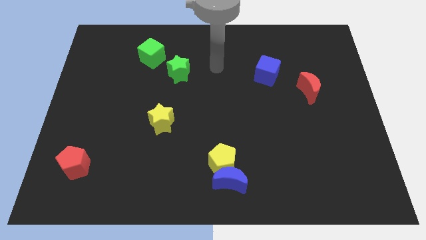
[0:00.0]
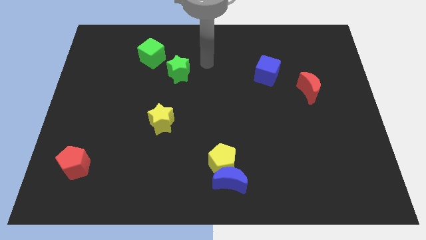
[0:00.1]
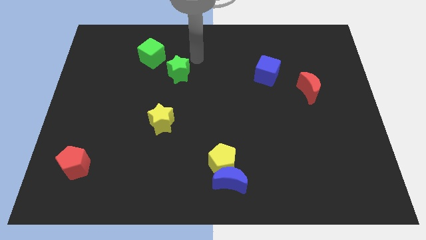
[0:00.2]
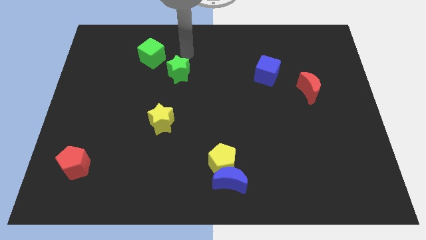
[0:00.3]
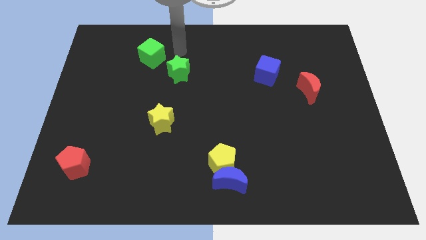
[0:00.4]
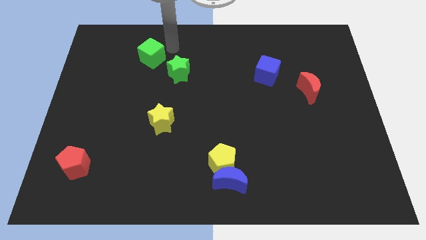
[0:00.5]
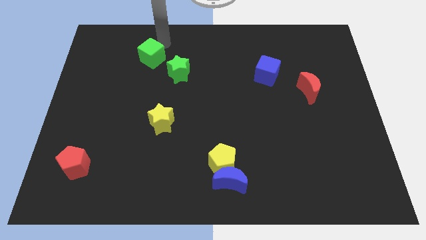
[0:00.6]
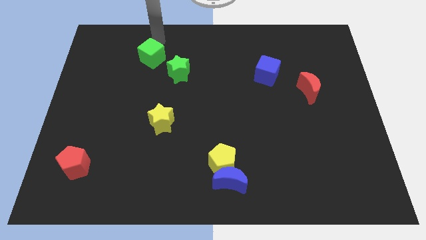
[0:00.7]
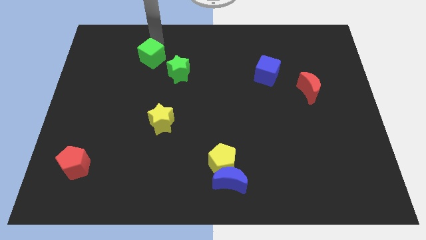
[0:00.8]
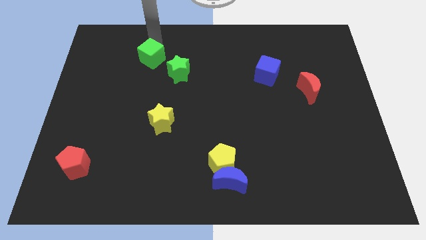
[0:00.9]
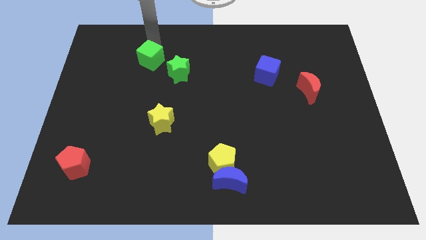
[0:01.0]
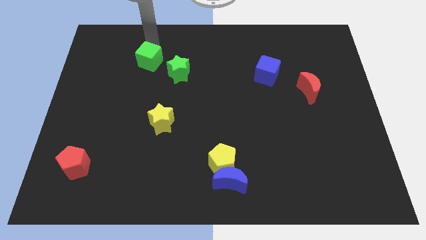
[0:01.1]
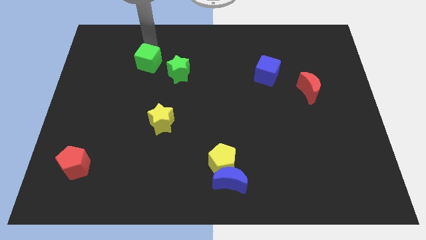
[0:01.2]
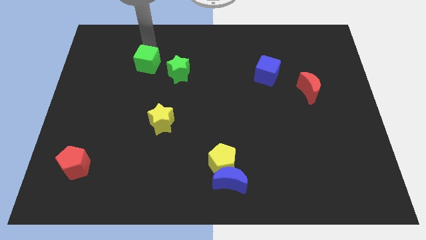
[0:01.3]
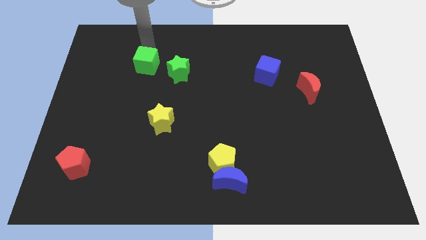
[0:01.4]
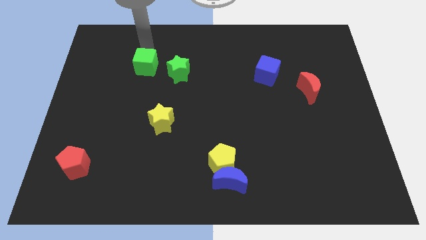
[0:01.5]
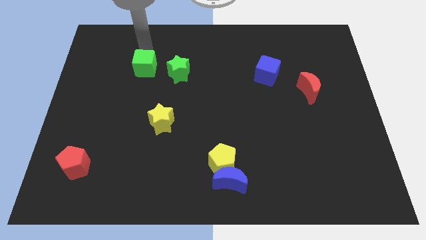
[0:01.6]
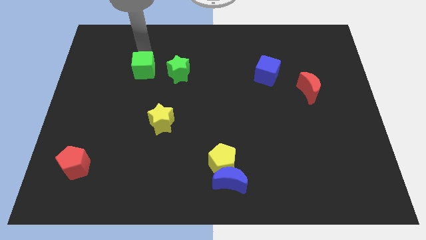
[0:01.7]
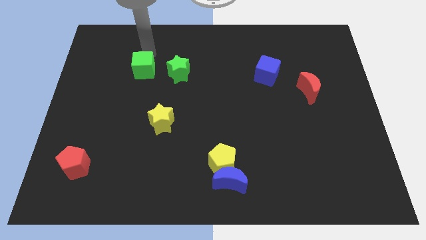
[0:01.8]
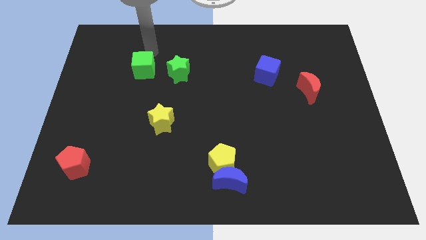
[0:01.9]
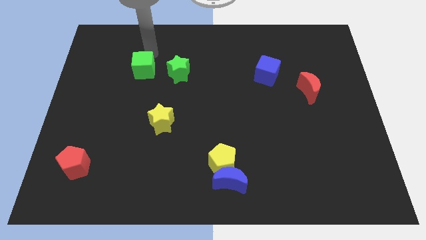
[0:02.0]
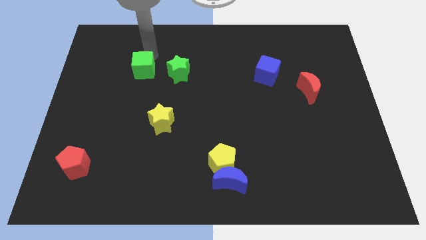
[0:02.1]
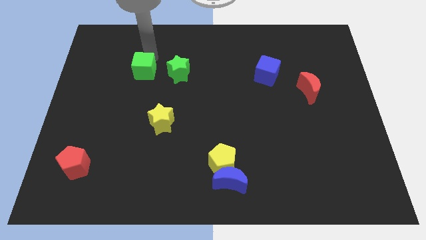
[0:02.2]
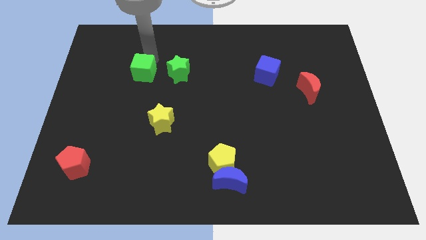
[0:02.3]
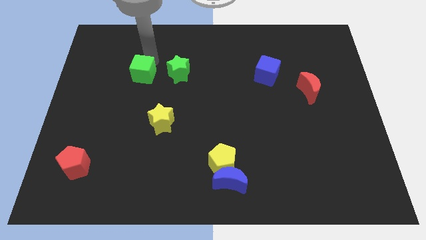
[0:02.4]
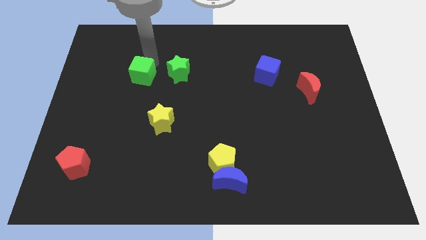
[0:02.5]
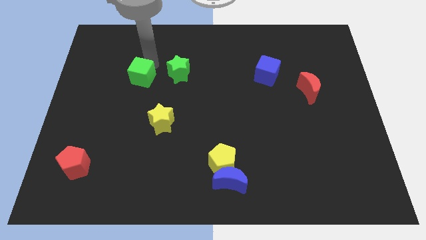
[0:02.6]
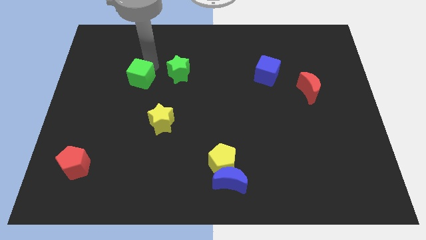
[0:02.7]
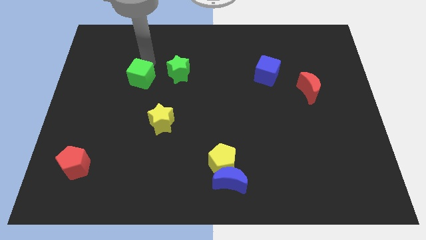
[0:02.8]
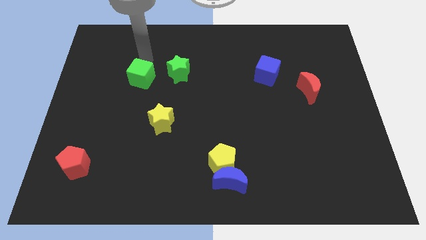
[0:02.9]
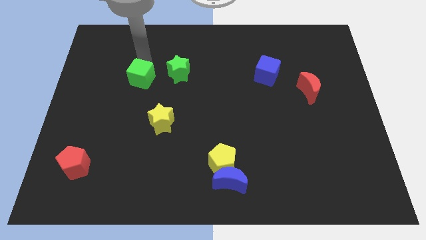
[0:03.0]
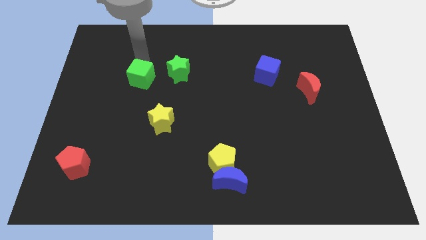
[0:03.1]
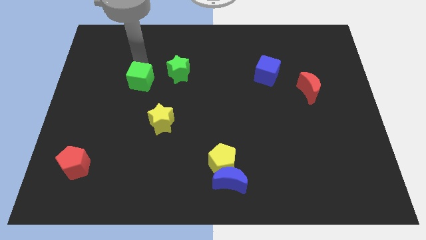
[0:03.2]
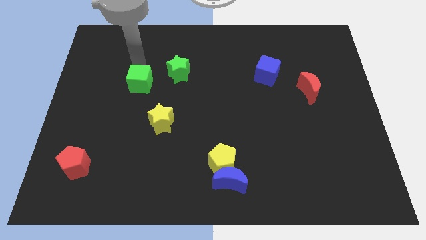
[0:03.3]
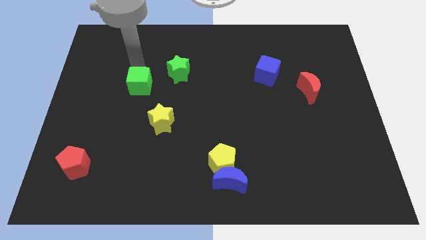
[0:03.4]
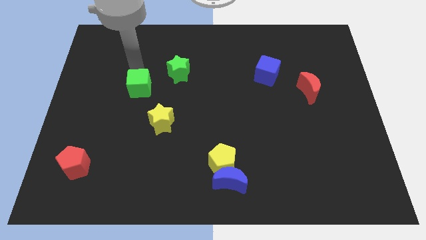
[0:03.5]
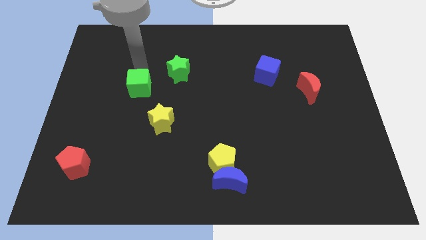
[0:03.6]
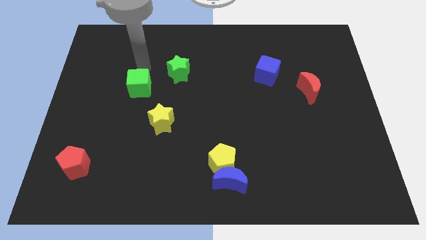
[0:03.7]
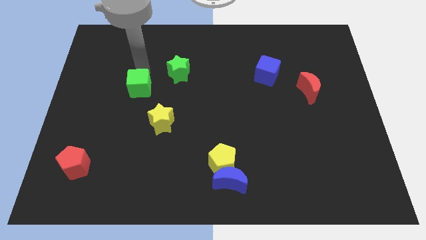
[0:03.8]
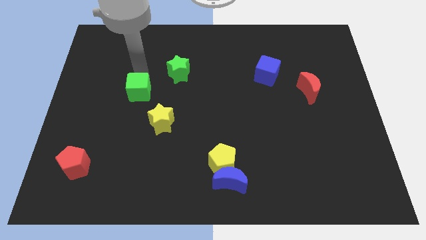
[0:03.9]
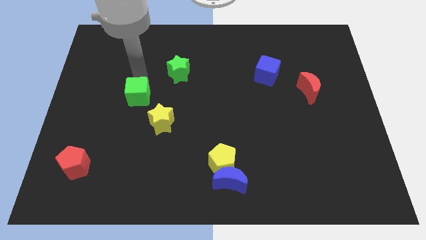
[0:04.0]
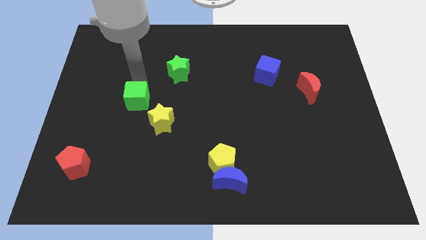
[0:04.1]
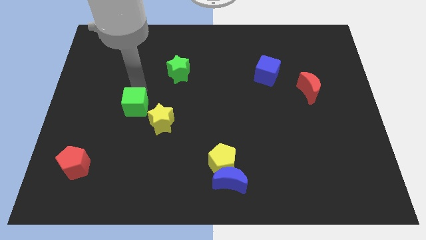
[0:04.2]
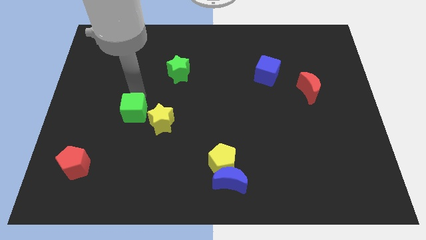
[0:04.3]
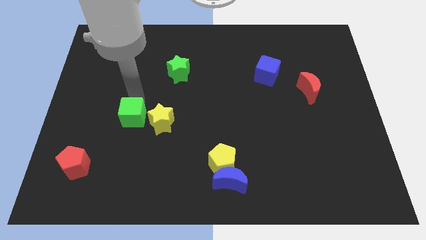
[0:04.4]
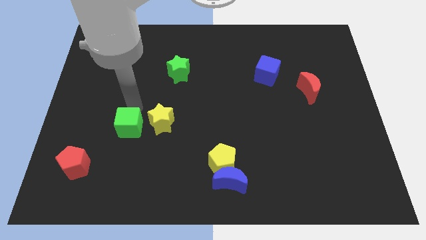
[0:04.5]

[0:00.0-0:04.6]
push the green cube downwards

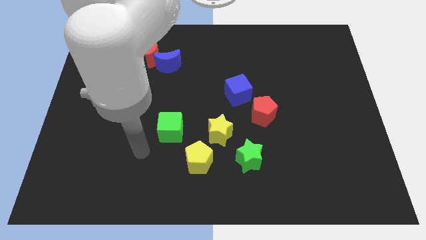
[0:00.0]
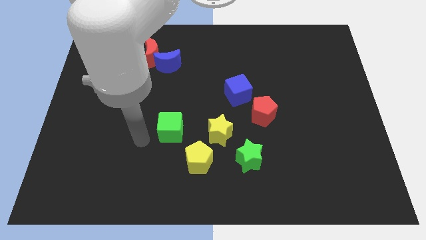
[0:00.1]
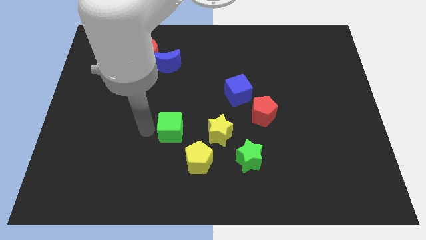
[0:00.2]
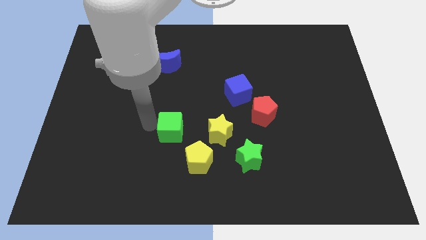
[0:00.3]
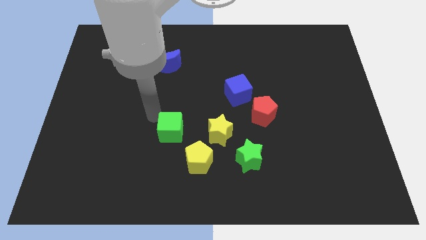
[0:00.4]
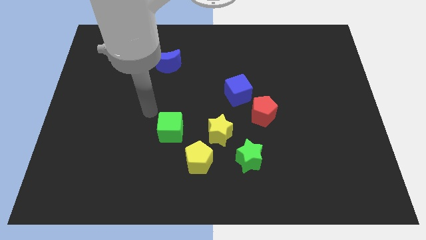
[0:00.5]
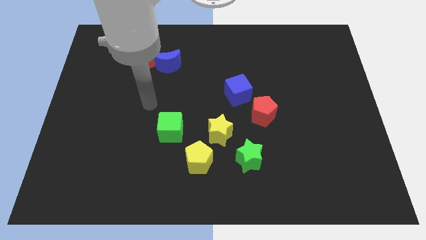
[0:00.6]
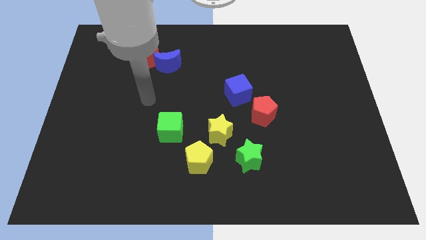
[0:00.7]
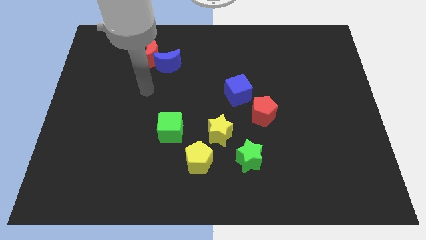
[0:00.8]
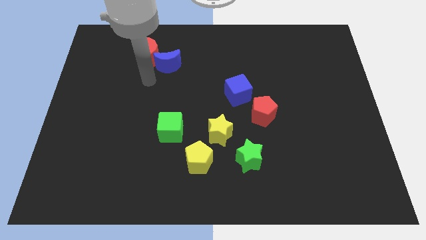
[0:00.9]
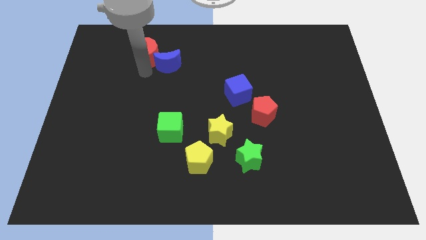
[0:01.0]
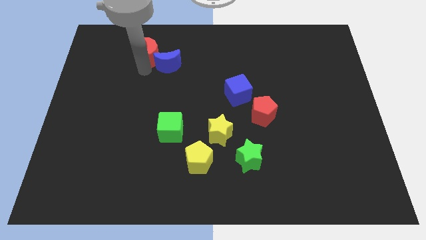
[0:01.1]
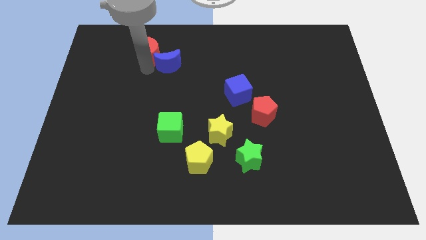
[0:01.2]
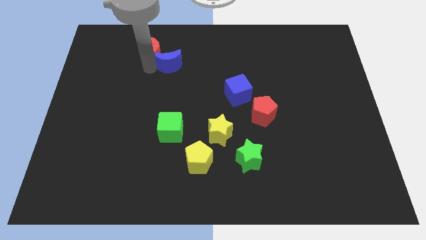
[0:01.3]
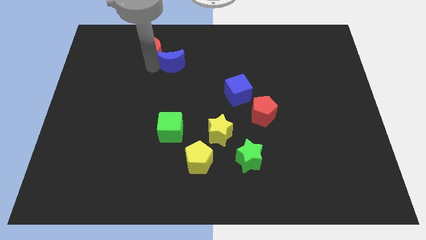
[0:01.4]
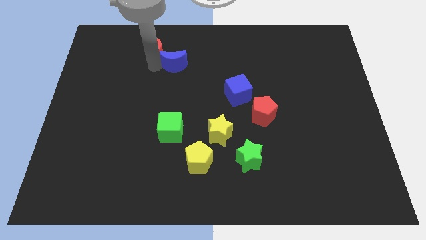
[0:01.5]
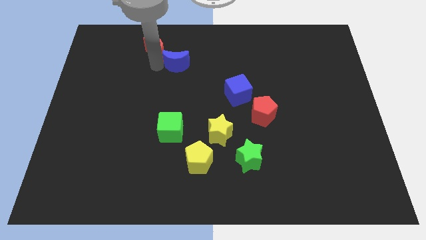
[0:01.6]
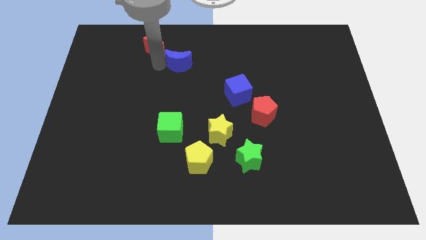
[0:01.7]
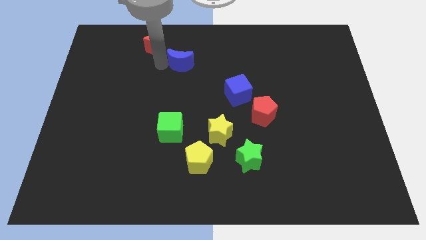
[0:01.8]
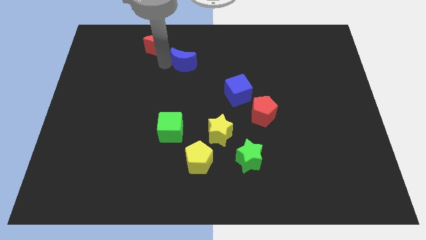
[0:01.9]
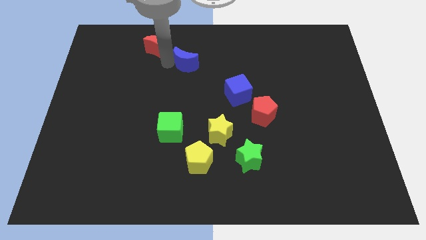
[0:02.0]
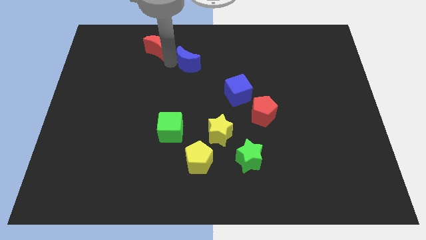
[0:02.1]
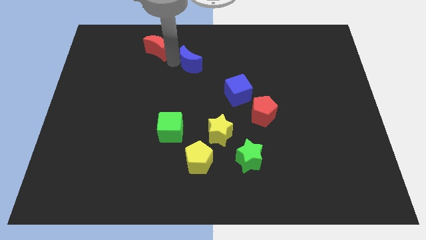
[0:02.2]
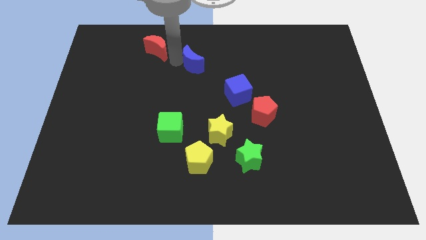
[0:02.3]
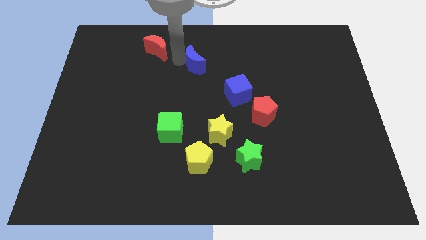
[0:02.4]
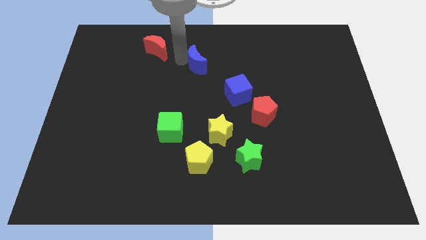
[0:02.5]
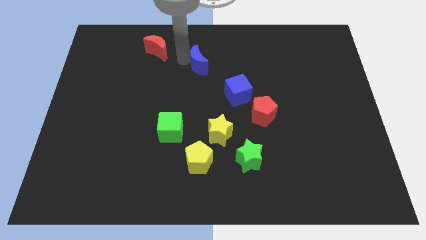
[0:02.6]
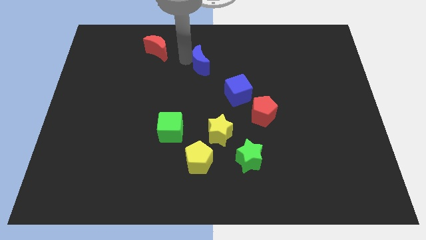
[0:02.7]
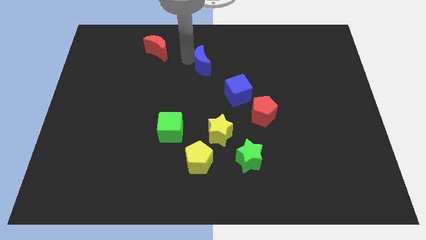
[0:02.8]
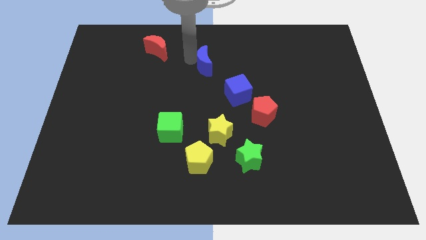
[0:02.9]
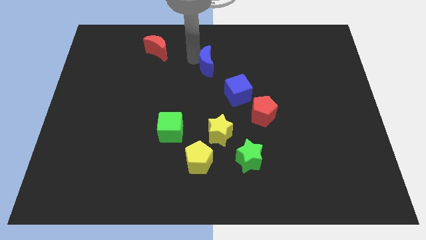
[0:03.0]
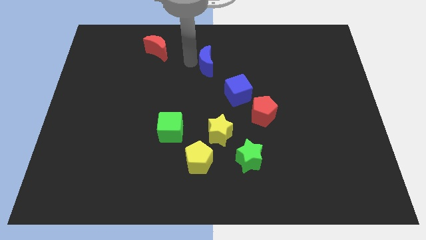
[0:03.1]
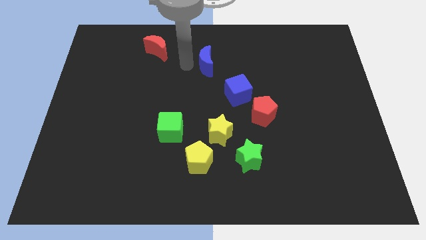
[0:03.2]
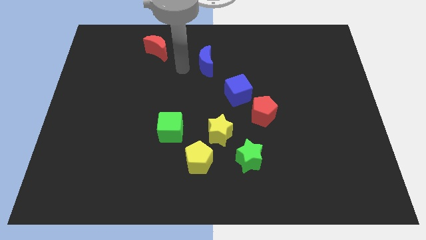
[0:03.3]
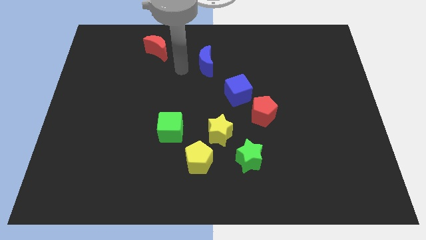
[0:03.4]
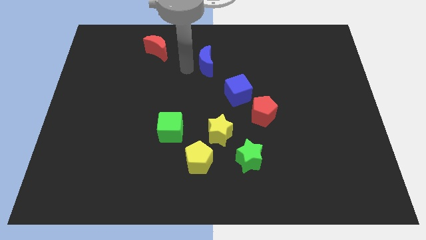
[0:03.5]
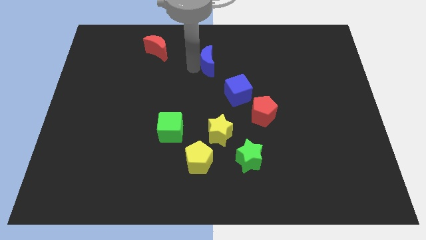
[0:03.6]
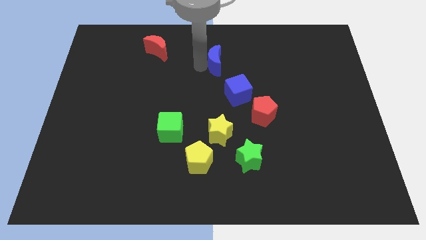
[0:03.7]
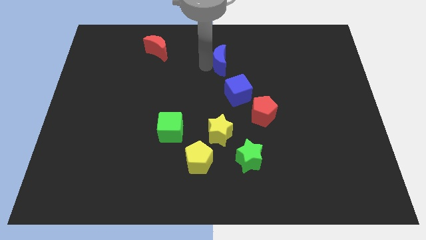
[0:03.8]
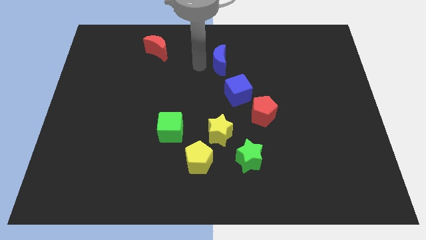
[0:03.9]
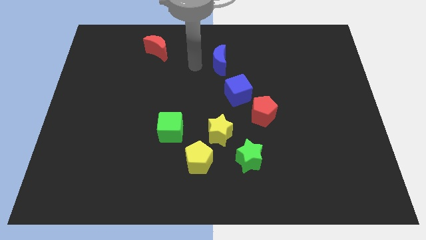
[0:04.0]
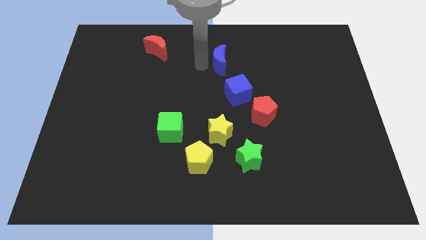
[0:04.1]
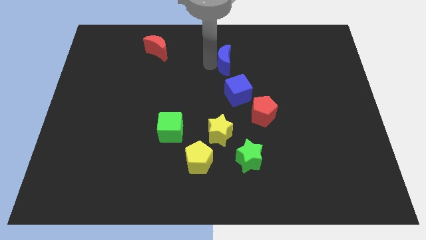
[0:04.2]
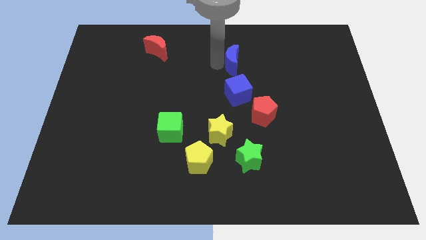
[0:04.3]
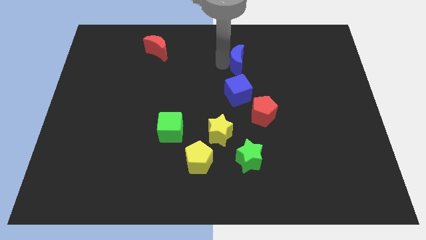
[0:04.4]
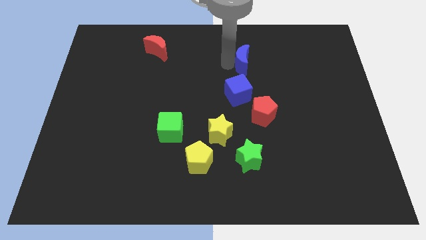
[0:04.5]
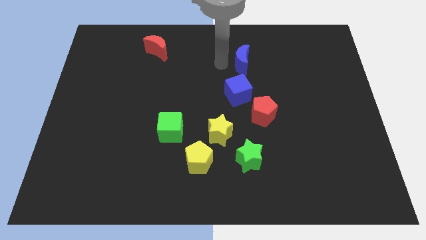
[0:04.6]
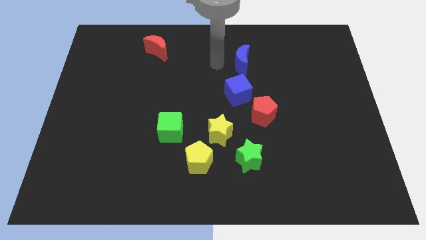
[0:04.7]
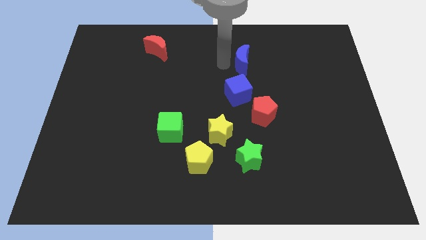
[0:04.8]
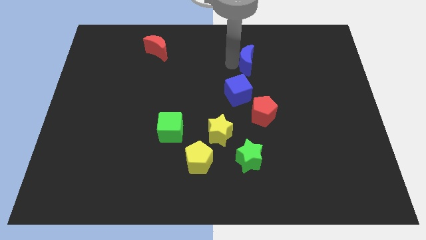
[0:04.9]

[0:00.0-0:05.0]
slide the blue moon to the right
